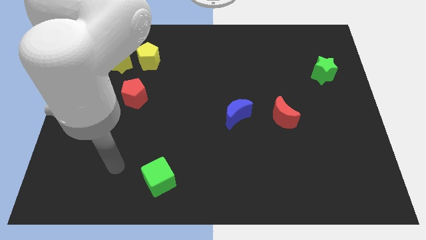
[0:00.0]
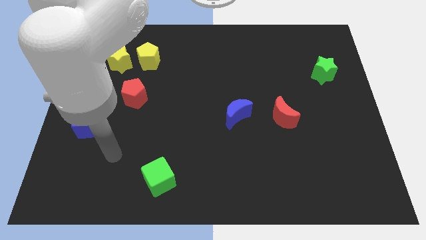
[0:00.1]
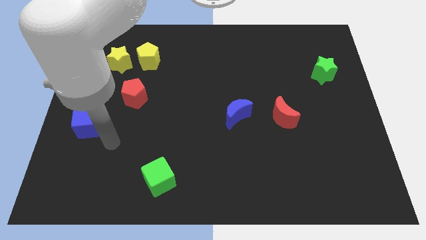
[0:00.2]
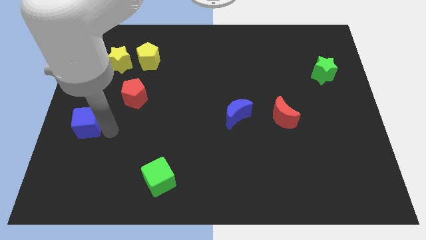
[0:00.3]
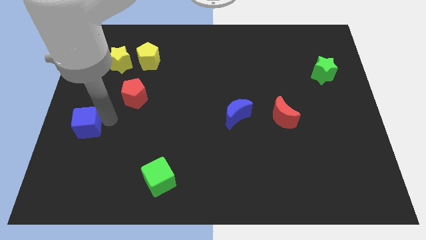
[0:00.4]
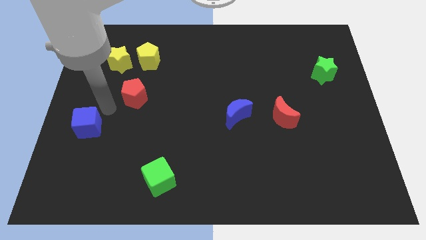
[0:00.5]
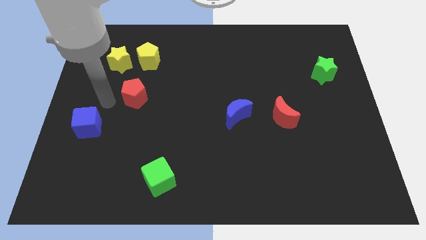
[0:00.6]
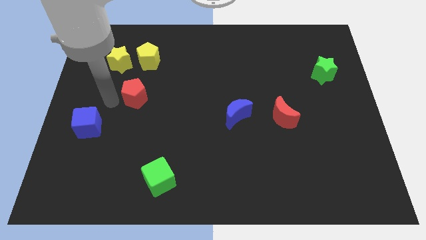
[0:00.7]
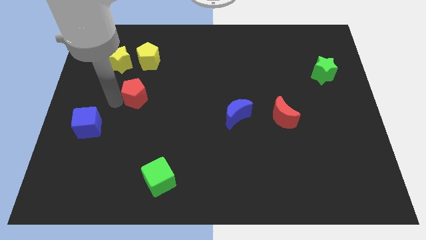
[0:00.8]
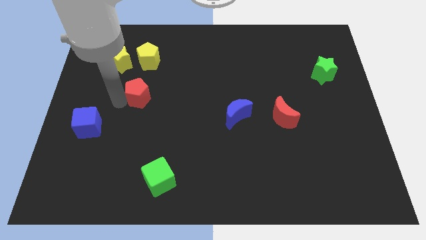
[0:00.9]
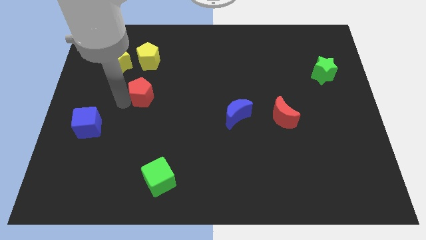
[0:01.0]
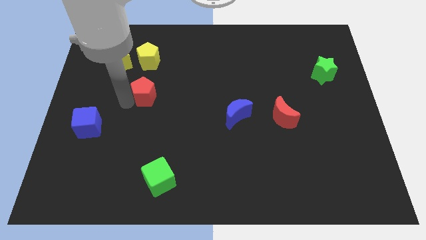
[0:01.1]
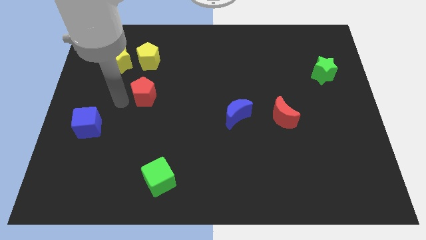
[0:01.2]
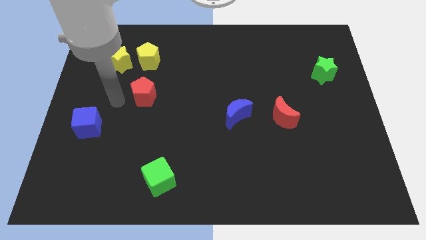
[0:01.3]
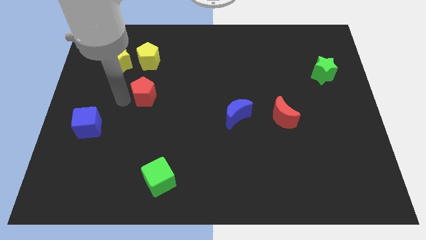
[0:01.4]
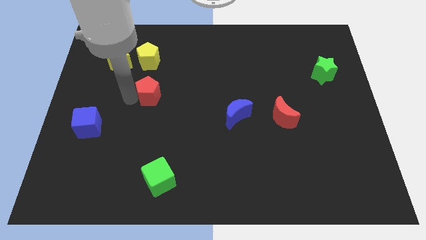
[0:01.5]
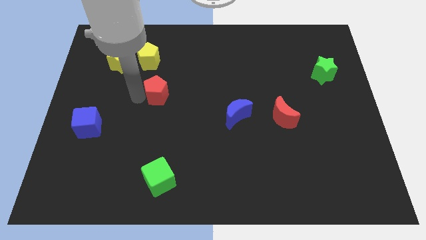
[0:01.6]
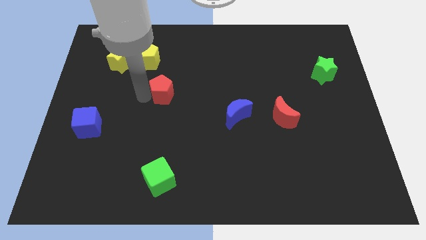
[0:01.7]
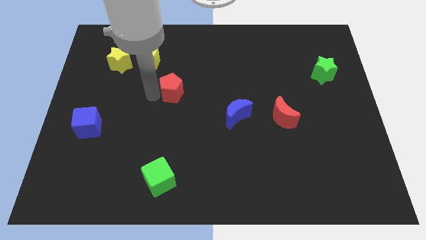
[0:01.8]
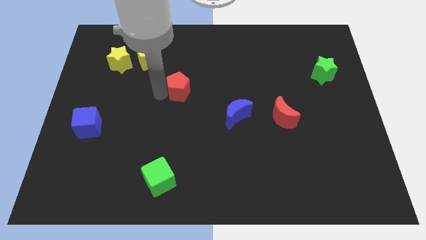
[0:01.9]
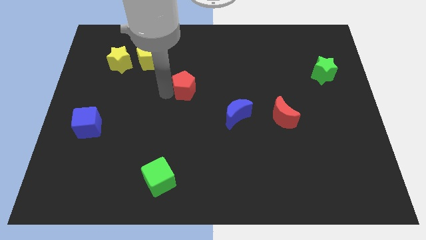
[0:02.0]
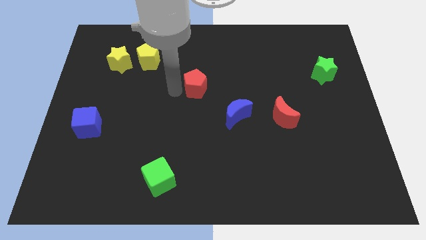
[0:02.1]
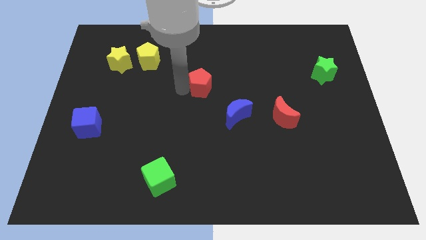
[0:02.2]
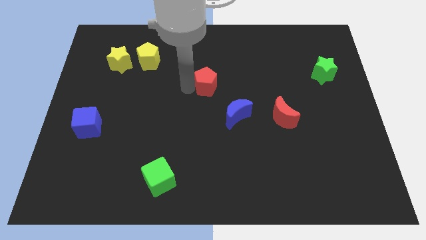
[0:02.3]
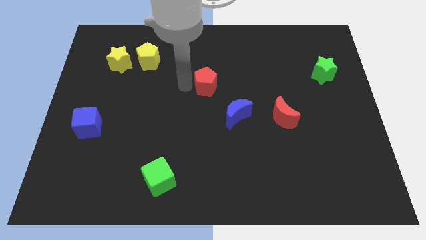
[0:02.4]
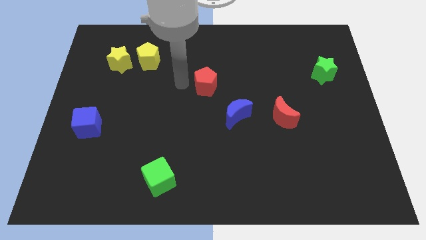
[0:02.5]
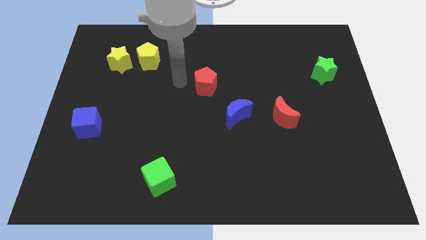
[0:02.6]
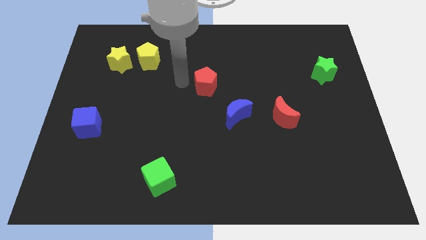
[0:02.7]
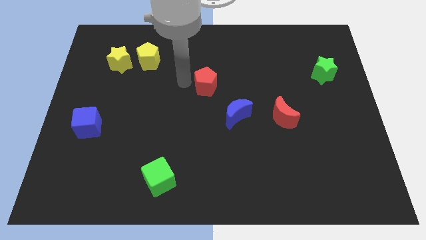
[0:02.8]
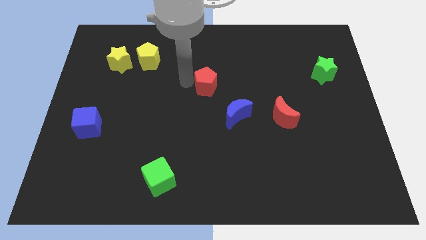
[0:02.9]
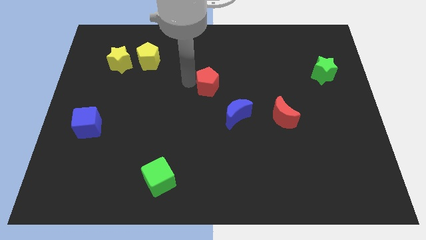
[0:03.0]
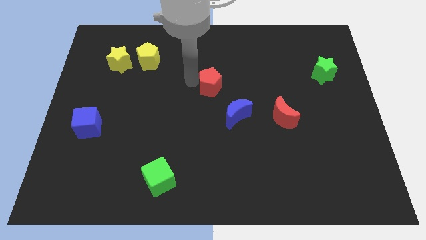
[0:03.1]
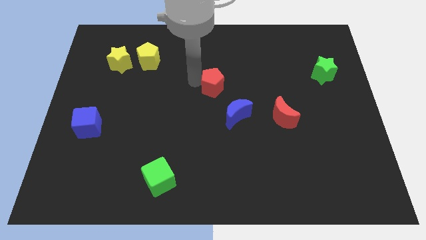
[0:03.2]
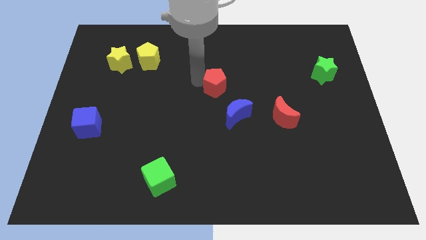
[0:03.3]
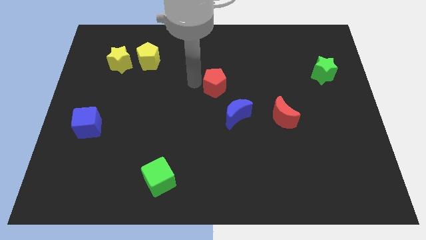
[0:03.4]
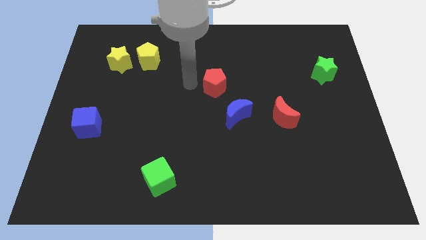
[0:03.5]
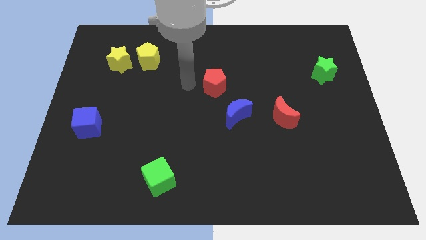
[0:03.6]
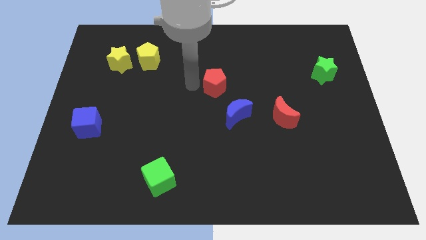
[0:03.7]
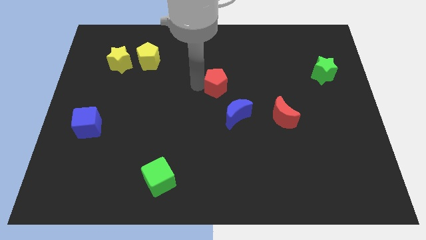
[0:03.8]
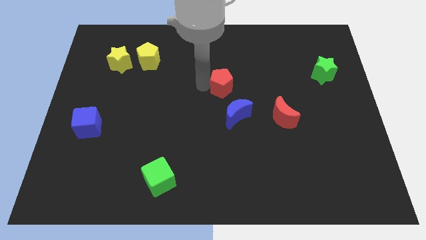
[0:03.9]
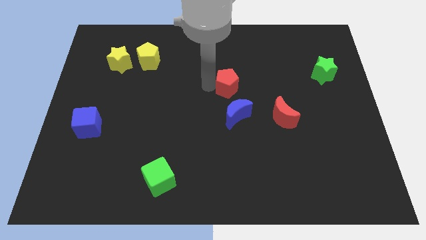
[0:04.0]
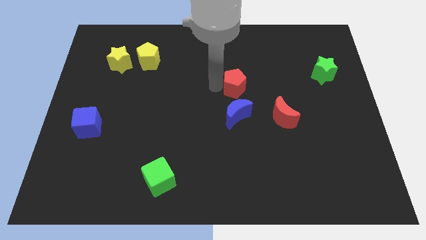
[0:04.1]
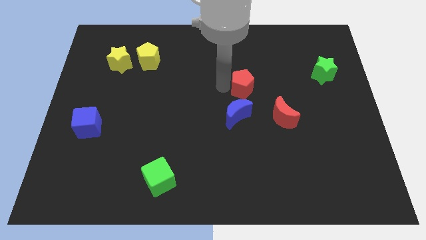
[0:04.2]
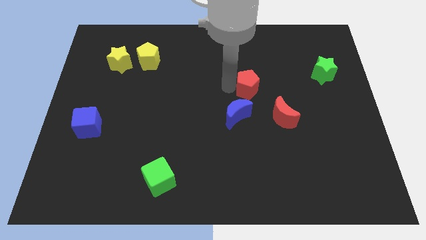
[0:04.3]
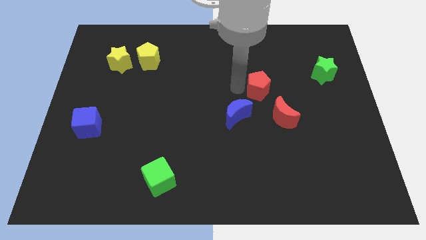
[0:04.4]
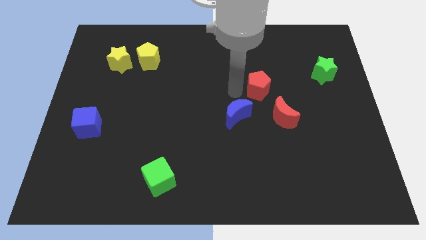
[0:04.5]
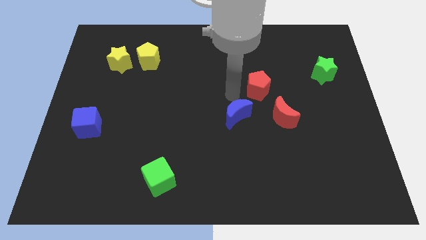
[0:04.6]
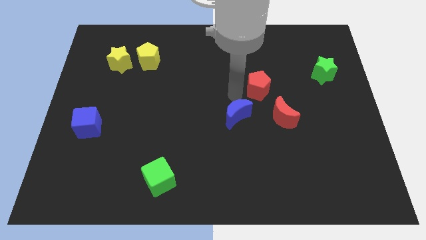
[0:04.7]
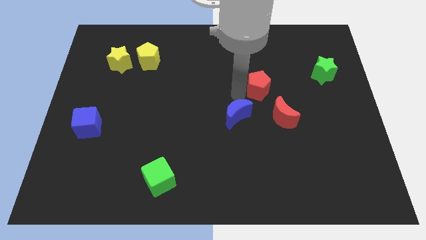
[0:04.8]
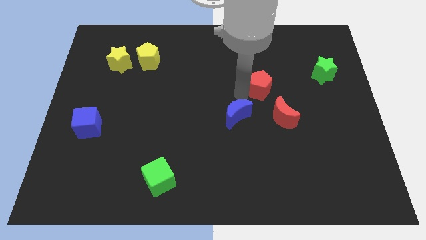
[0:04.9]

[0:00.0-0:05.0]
slide the red pentagon to the top of the red moon

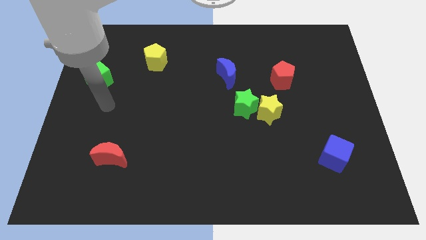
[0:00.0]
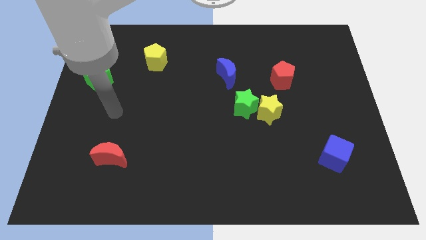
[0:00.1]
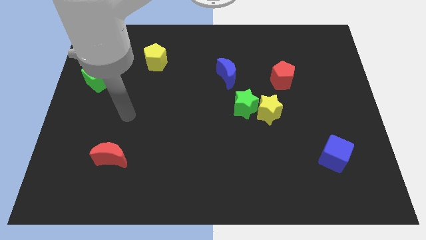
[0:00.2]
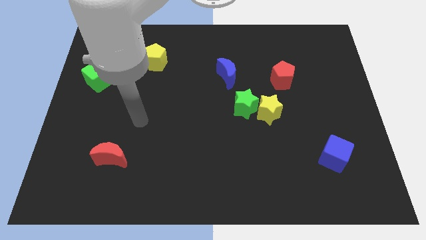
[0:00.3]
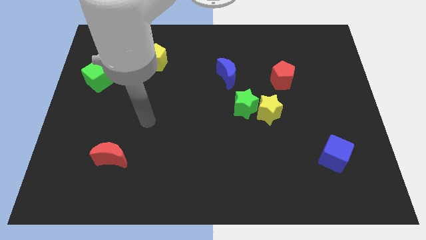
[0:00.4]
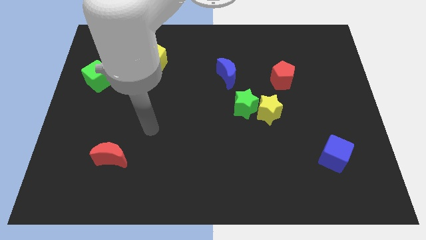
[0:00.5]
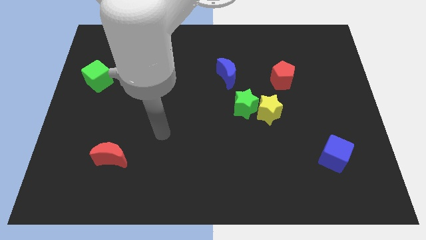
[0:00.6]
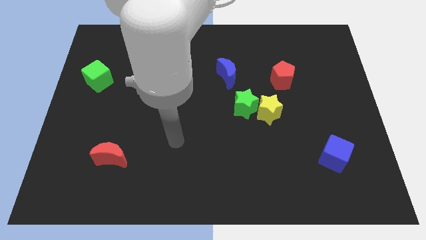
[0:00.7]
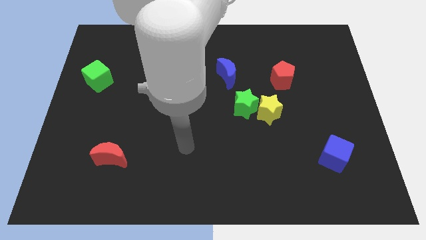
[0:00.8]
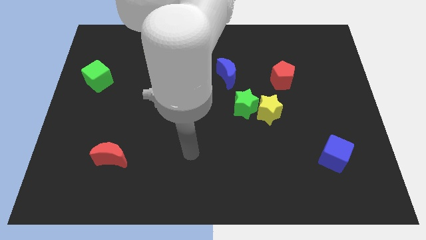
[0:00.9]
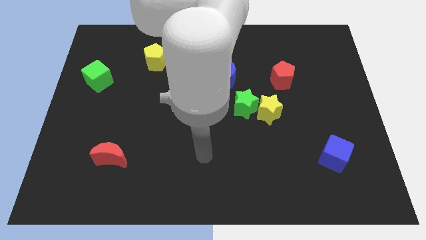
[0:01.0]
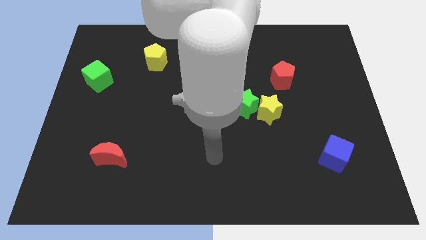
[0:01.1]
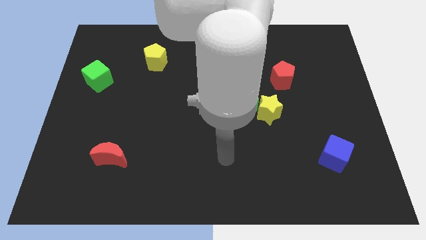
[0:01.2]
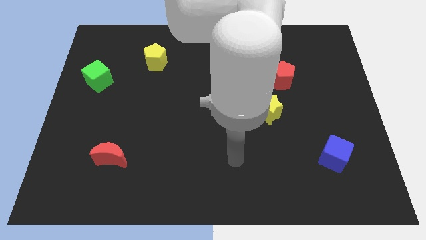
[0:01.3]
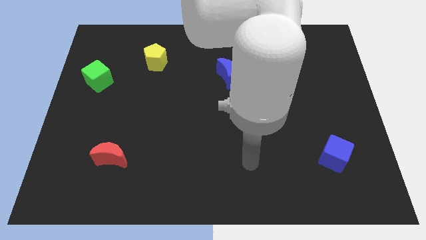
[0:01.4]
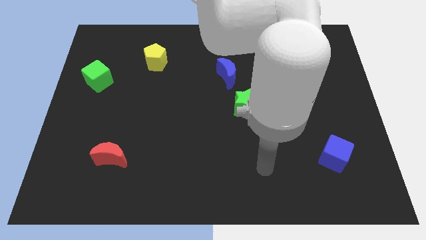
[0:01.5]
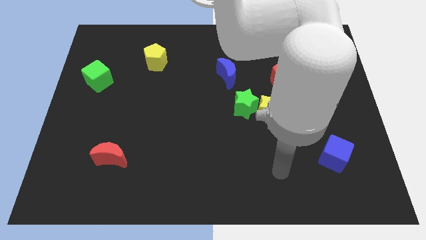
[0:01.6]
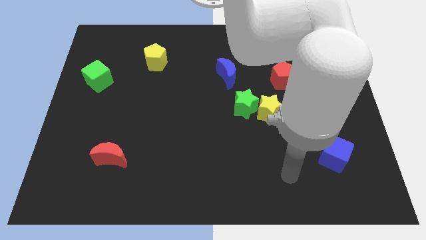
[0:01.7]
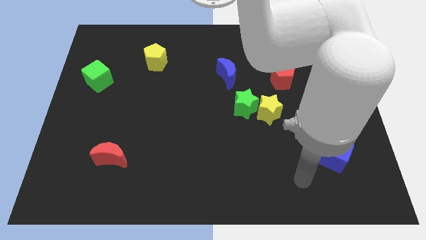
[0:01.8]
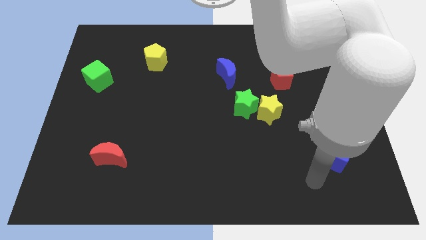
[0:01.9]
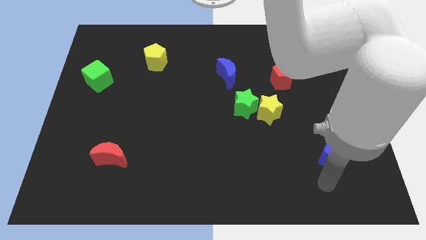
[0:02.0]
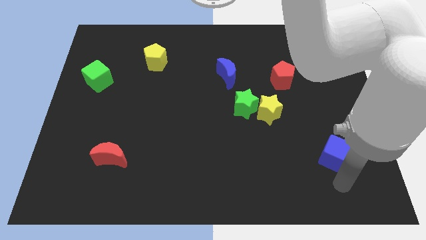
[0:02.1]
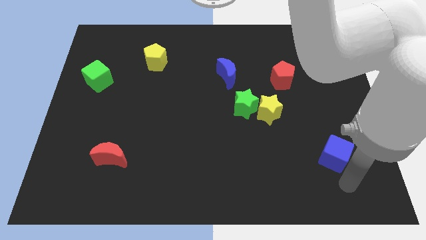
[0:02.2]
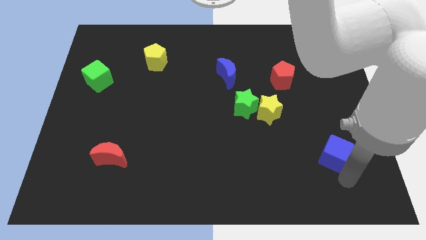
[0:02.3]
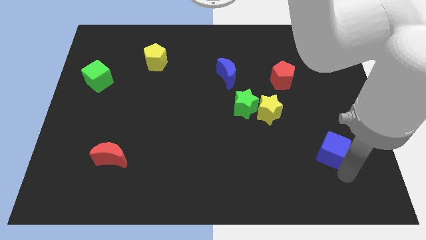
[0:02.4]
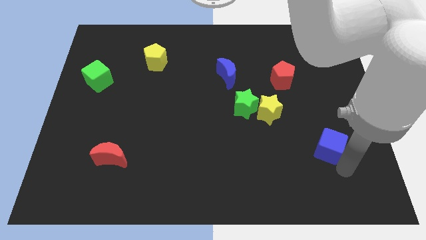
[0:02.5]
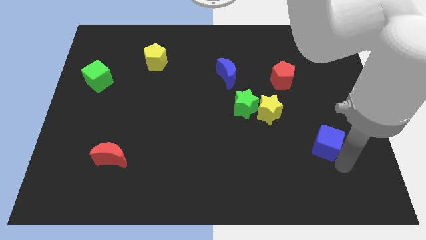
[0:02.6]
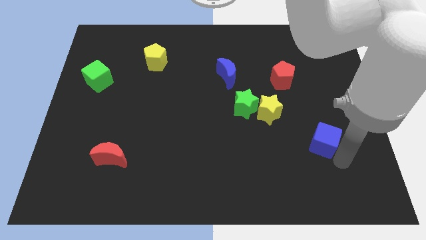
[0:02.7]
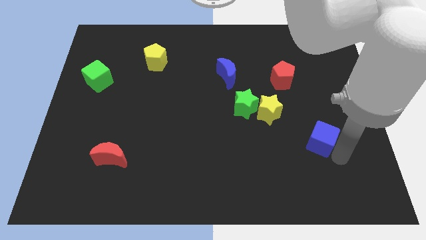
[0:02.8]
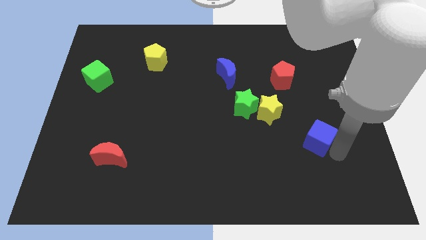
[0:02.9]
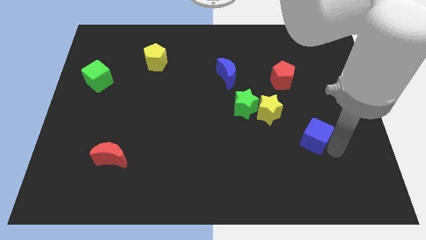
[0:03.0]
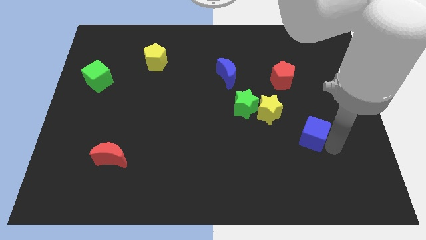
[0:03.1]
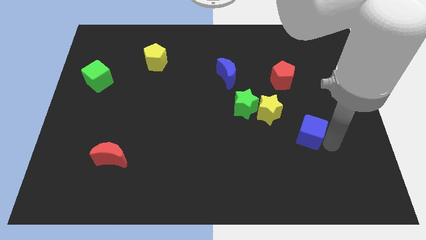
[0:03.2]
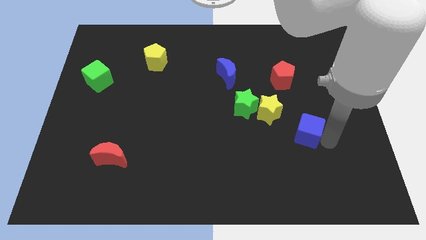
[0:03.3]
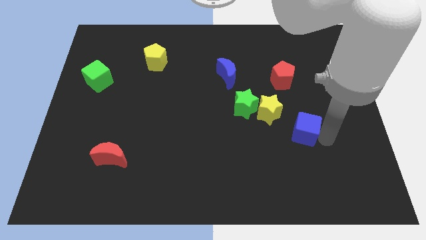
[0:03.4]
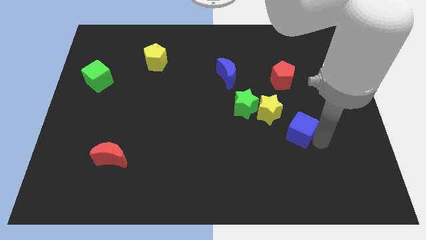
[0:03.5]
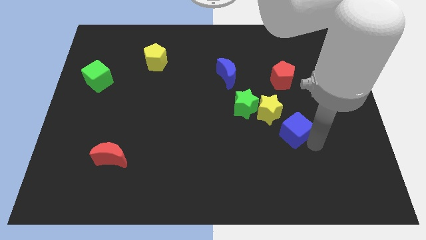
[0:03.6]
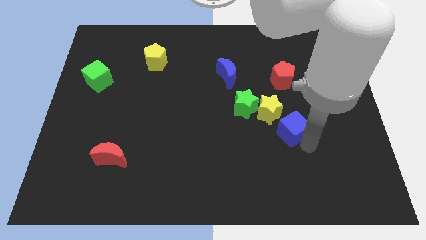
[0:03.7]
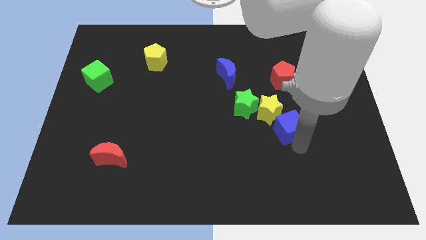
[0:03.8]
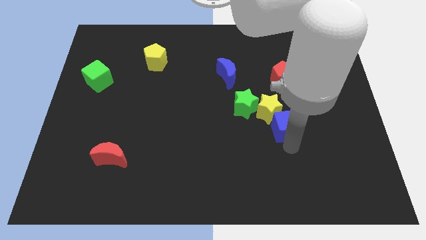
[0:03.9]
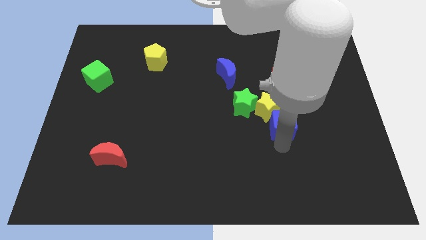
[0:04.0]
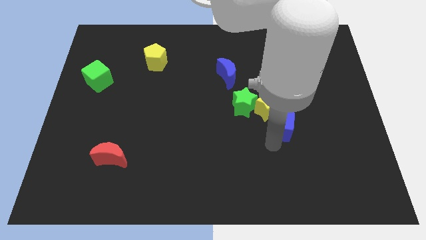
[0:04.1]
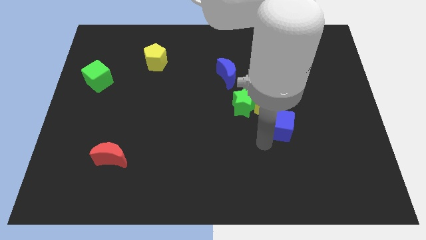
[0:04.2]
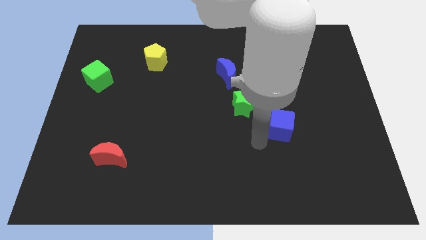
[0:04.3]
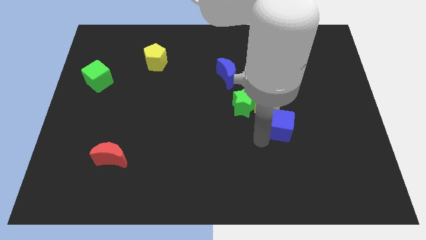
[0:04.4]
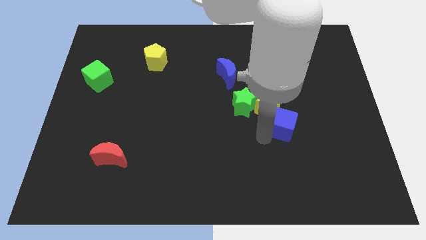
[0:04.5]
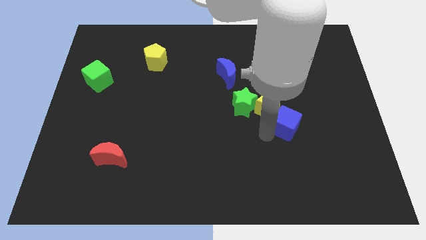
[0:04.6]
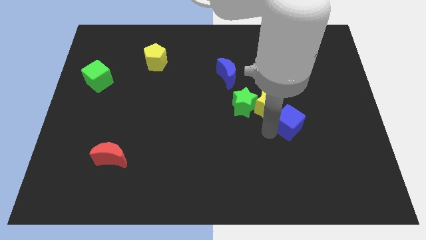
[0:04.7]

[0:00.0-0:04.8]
move the blue cube right of the yellow star
